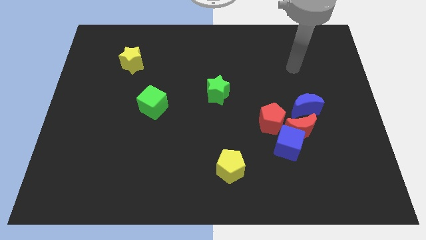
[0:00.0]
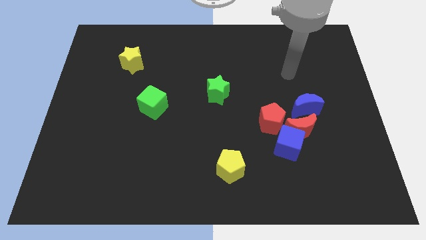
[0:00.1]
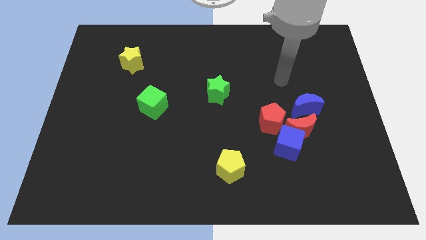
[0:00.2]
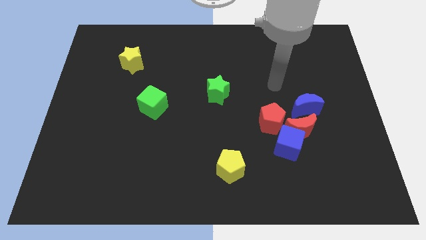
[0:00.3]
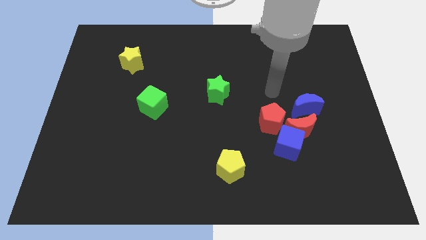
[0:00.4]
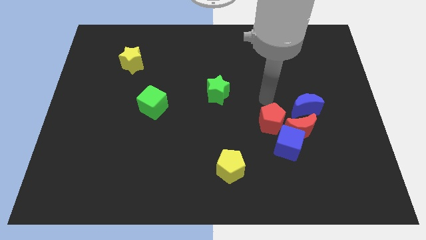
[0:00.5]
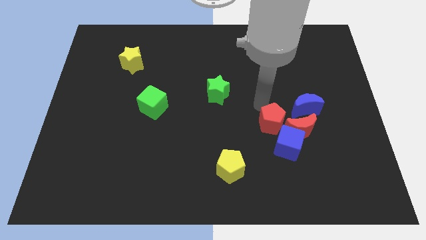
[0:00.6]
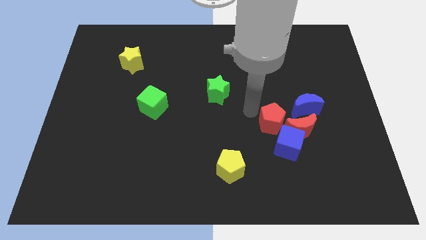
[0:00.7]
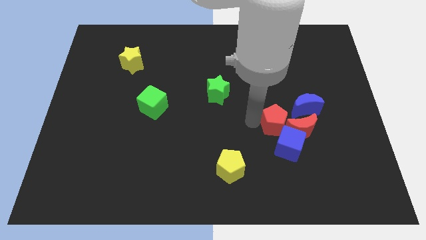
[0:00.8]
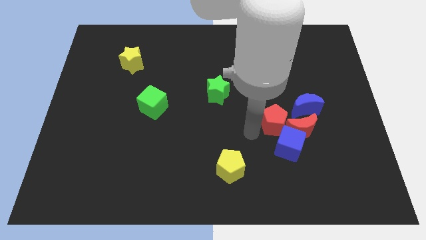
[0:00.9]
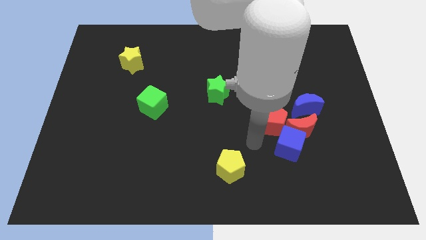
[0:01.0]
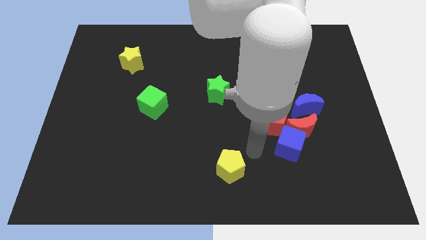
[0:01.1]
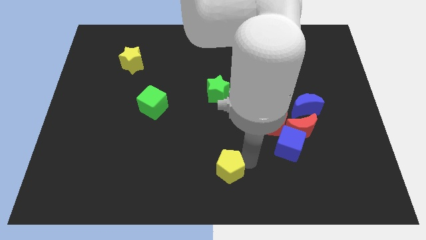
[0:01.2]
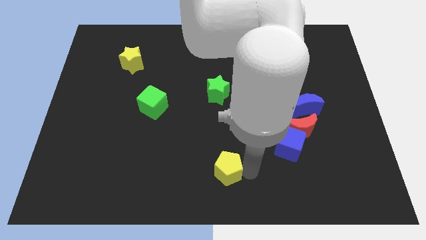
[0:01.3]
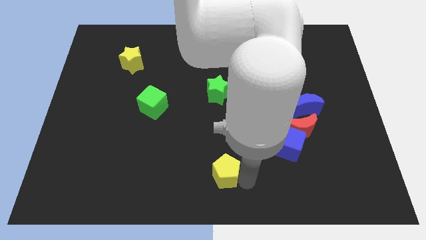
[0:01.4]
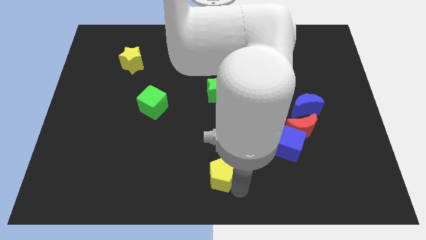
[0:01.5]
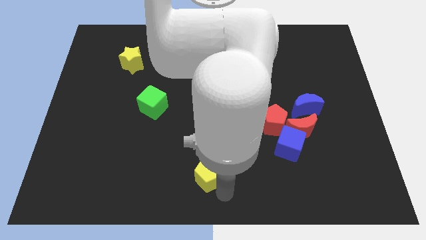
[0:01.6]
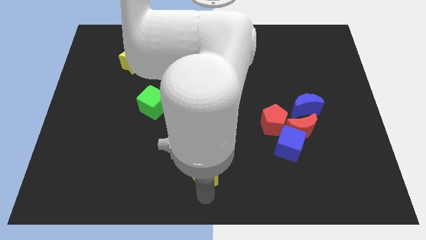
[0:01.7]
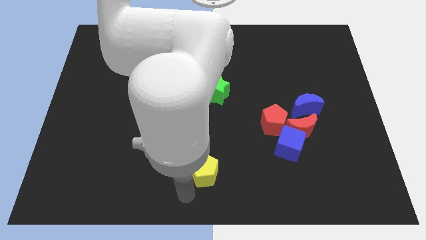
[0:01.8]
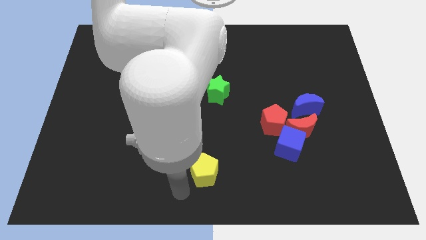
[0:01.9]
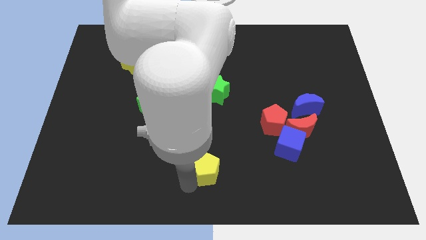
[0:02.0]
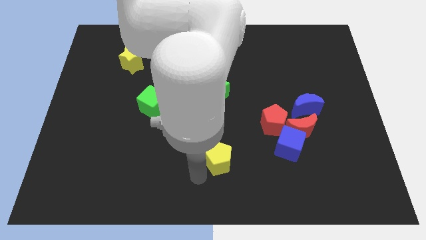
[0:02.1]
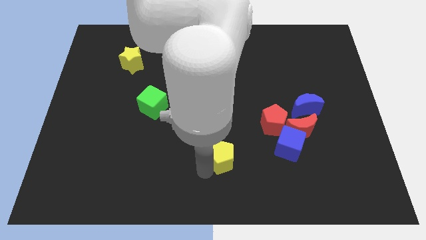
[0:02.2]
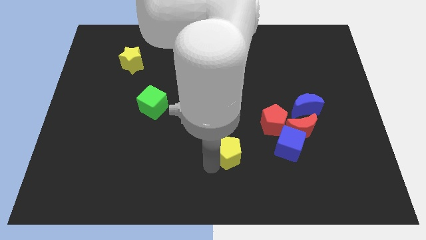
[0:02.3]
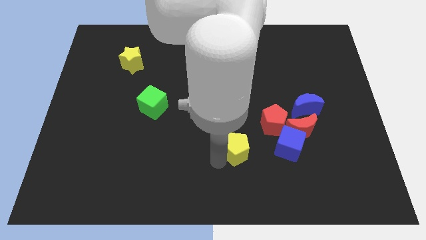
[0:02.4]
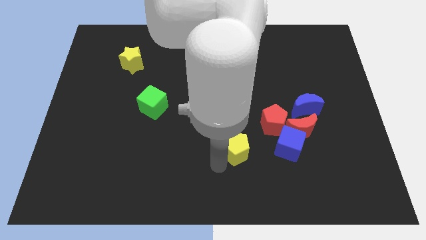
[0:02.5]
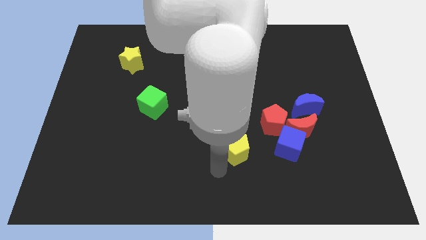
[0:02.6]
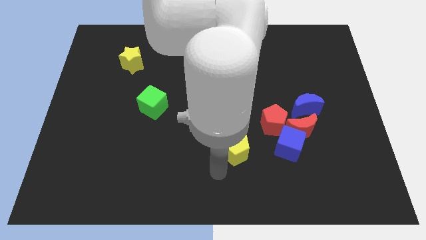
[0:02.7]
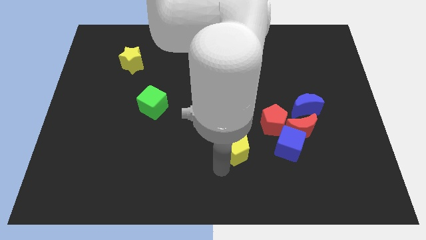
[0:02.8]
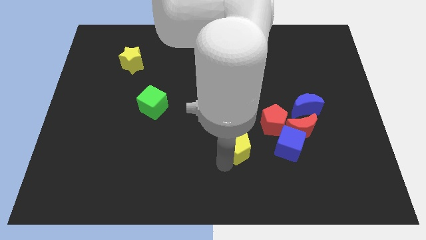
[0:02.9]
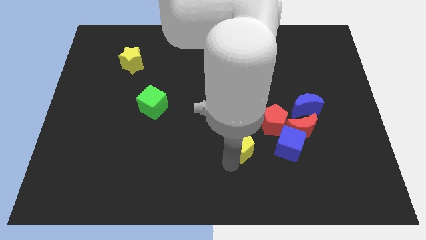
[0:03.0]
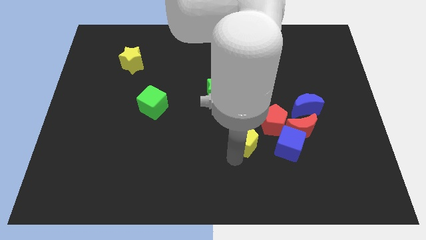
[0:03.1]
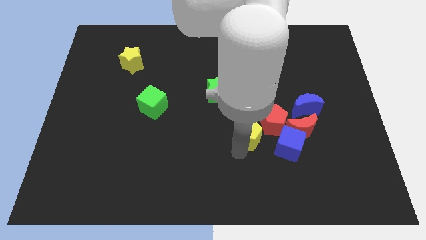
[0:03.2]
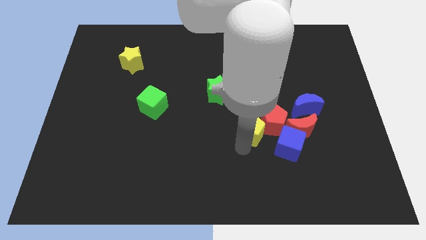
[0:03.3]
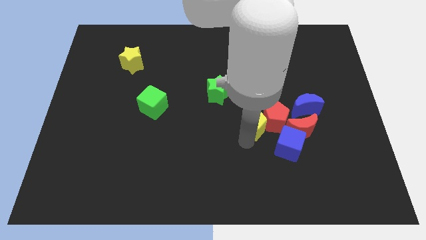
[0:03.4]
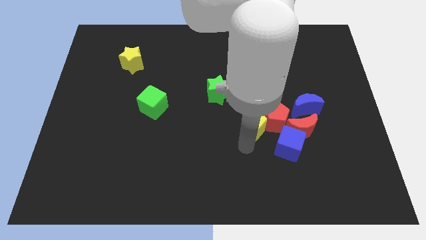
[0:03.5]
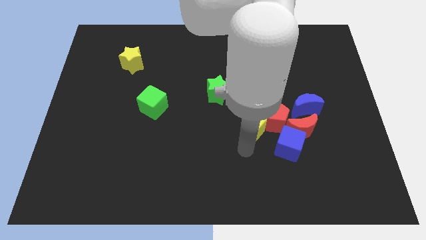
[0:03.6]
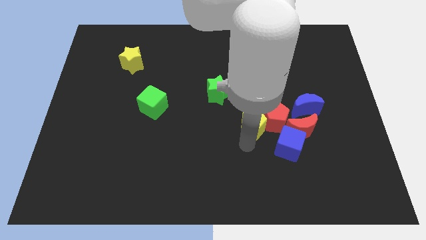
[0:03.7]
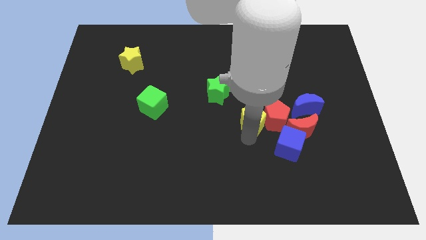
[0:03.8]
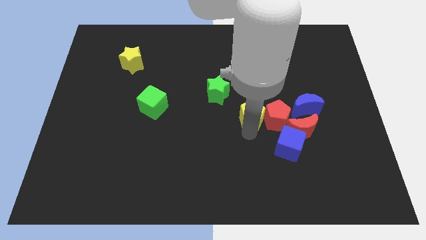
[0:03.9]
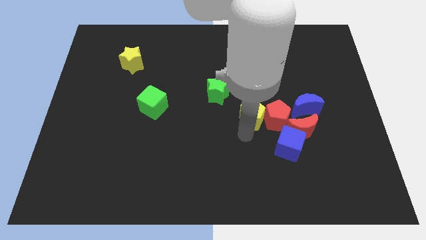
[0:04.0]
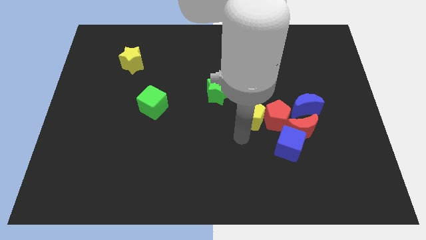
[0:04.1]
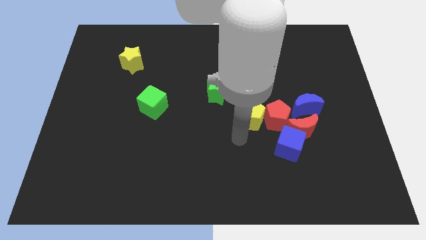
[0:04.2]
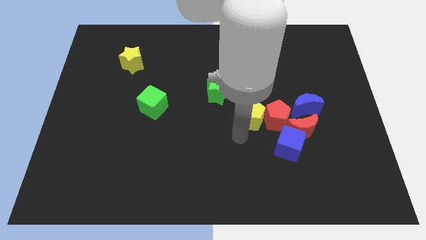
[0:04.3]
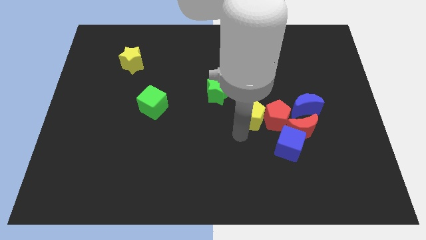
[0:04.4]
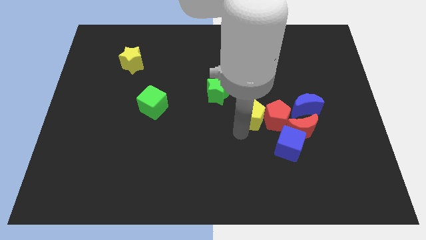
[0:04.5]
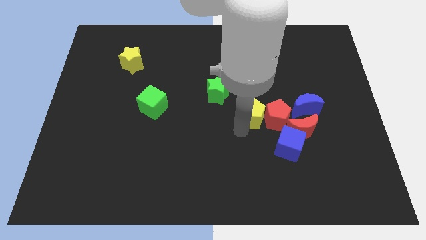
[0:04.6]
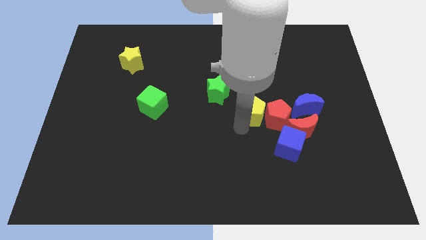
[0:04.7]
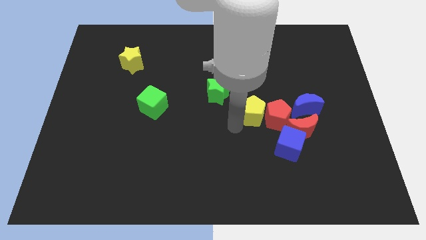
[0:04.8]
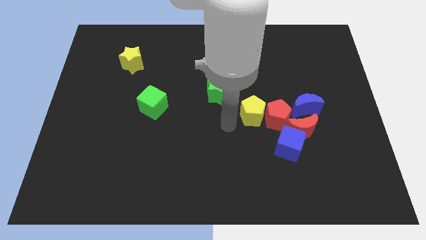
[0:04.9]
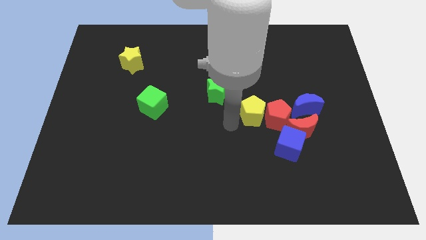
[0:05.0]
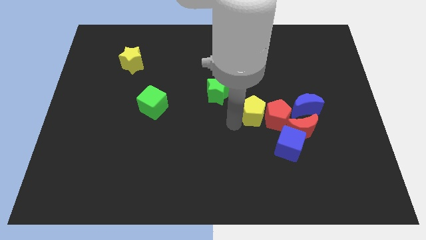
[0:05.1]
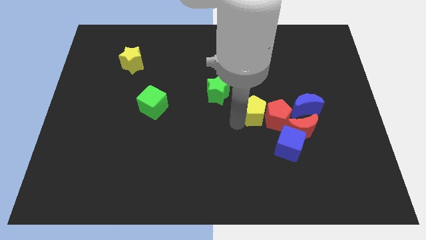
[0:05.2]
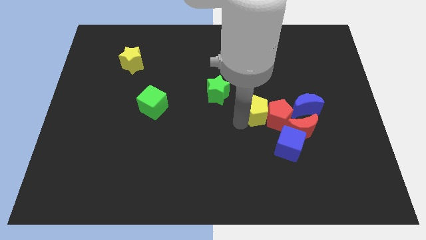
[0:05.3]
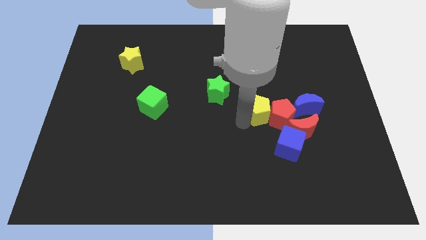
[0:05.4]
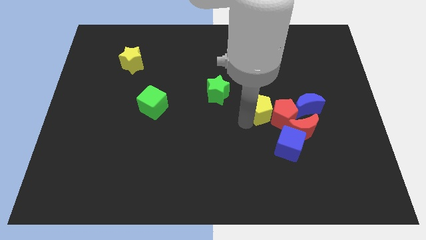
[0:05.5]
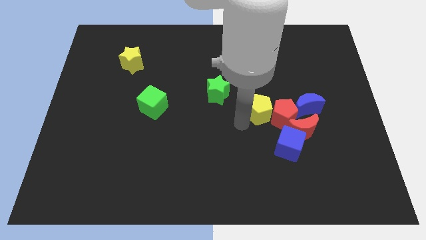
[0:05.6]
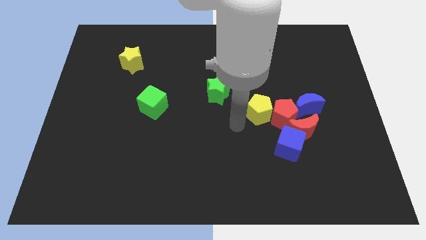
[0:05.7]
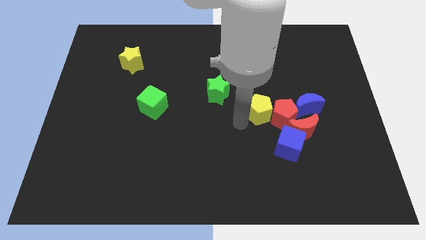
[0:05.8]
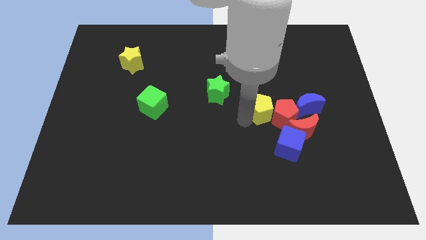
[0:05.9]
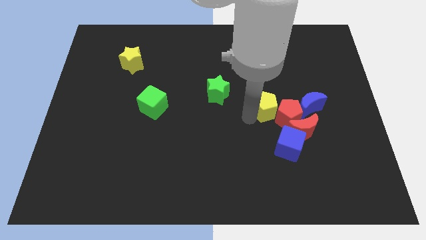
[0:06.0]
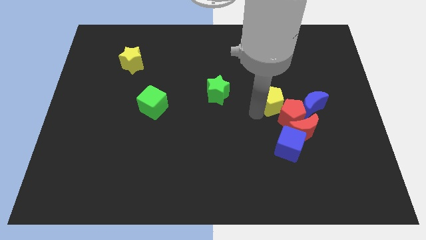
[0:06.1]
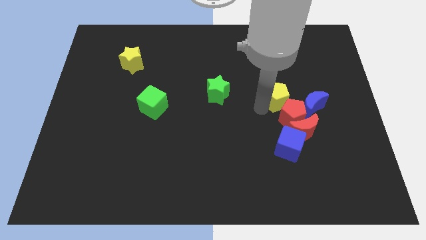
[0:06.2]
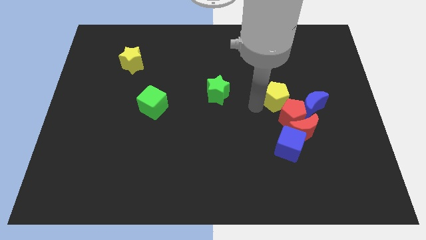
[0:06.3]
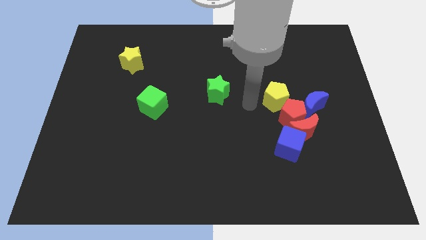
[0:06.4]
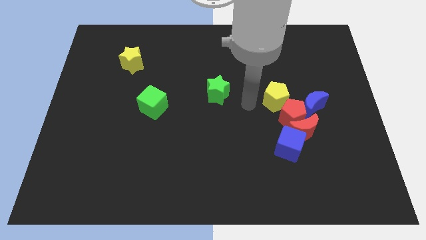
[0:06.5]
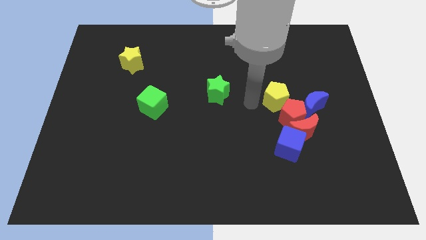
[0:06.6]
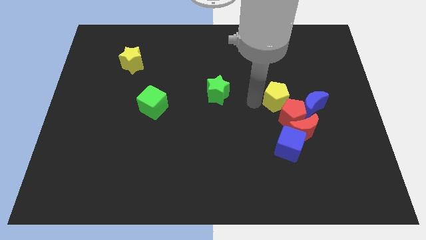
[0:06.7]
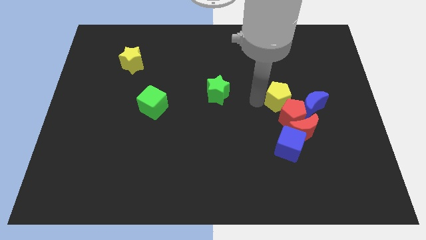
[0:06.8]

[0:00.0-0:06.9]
put the yellow pentagon to the top side of the red moon
